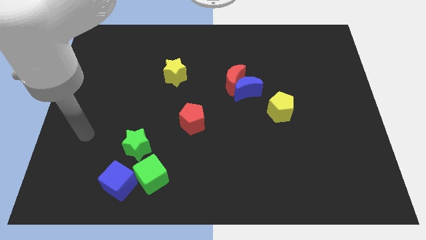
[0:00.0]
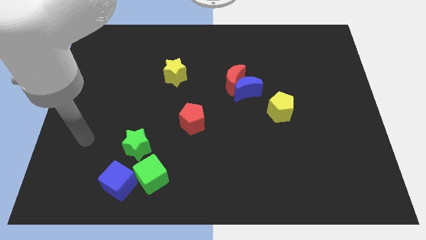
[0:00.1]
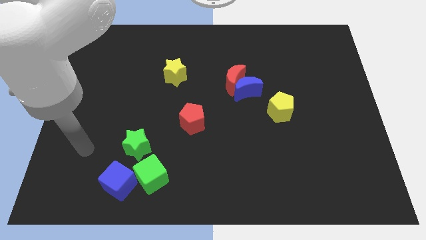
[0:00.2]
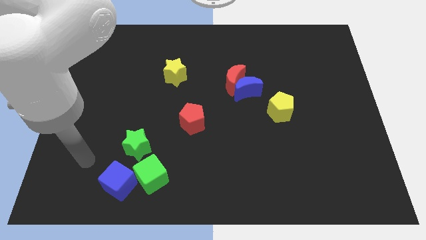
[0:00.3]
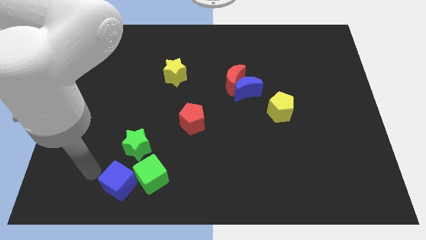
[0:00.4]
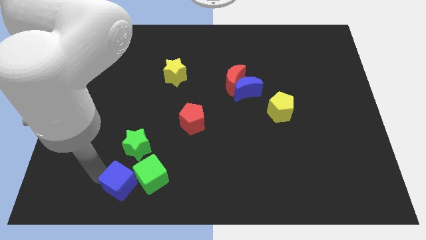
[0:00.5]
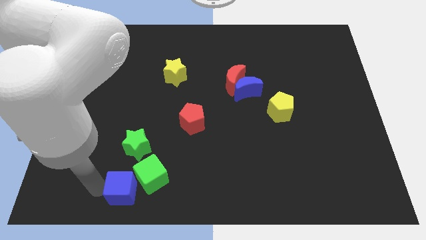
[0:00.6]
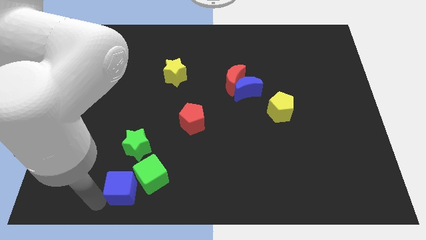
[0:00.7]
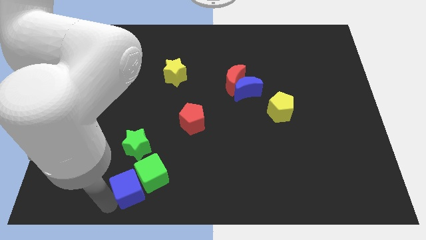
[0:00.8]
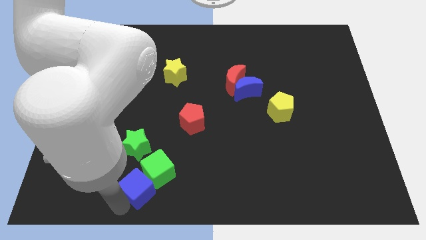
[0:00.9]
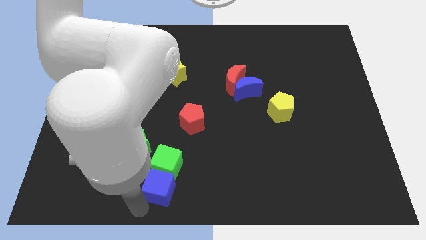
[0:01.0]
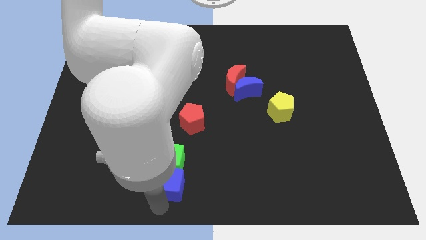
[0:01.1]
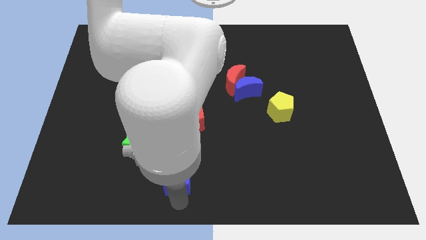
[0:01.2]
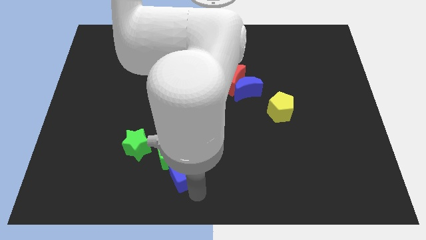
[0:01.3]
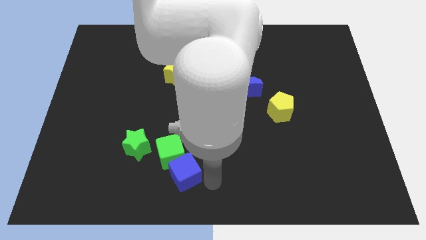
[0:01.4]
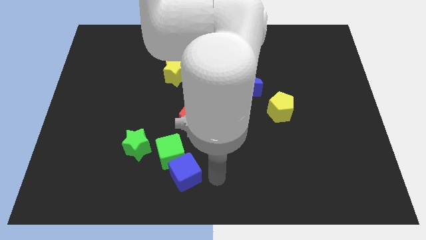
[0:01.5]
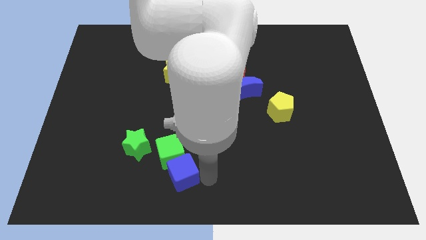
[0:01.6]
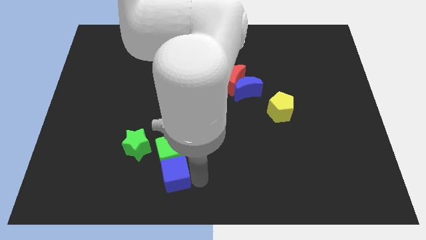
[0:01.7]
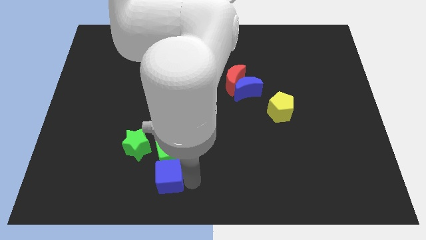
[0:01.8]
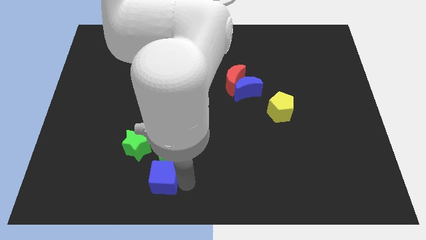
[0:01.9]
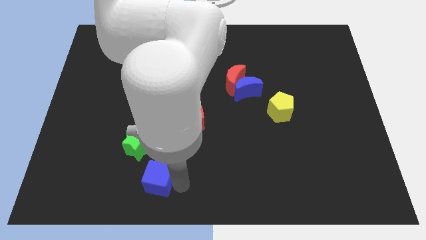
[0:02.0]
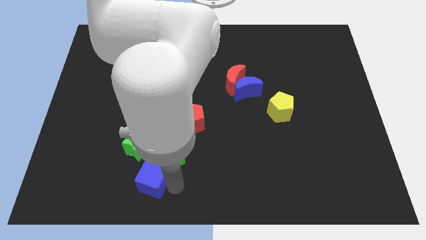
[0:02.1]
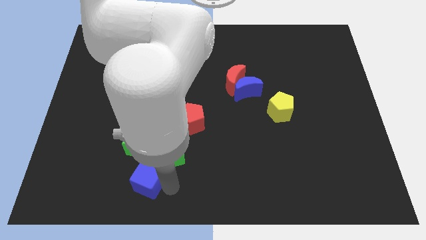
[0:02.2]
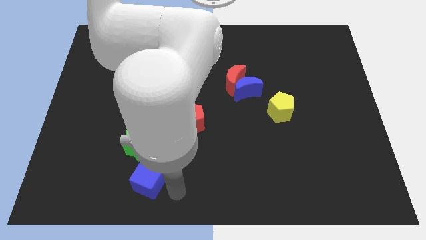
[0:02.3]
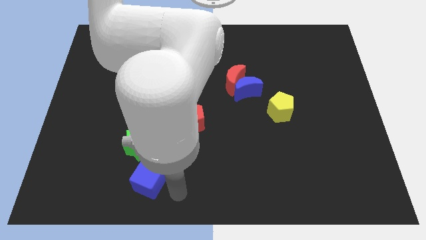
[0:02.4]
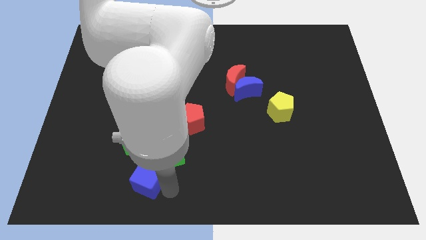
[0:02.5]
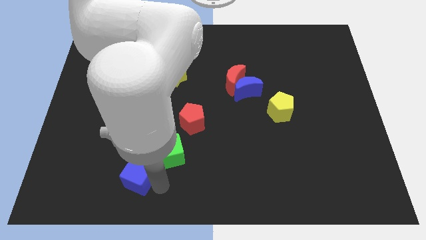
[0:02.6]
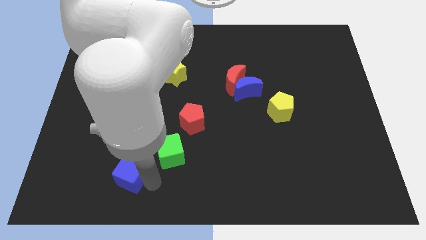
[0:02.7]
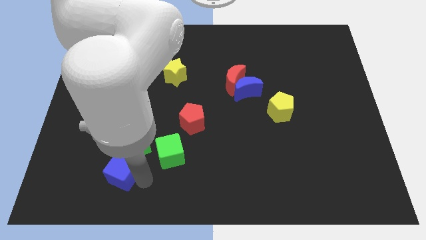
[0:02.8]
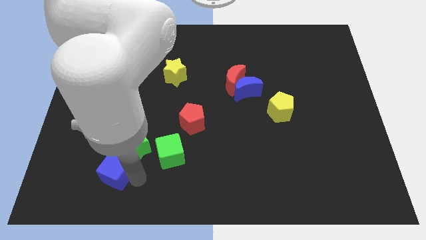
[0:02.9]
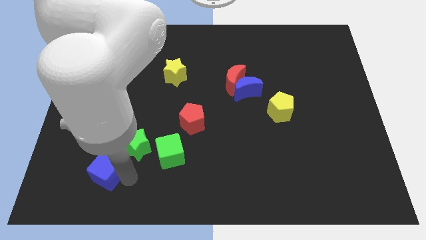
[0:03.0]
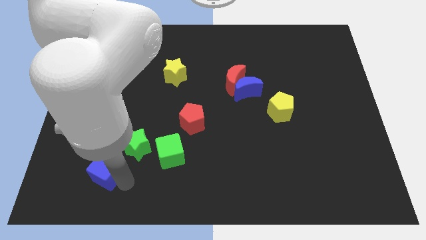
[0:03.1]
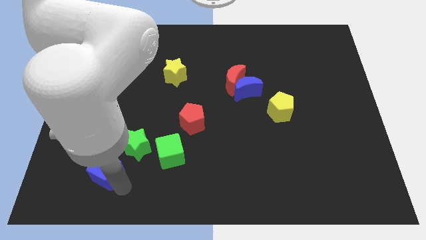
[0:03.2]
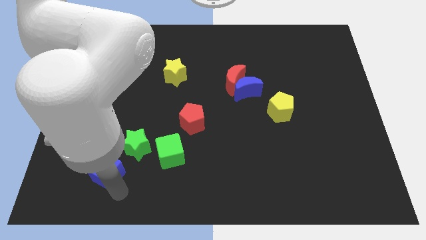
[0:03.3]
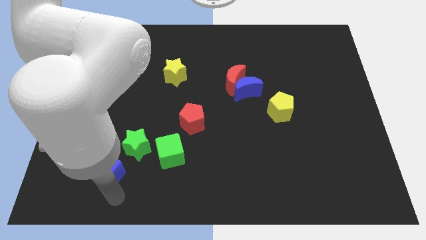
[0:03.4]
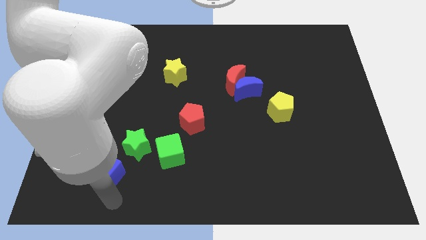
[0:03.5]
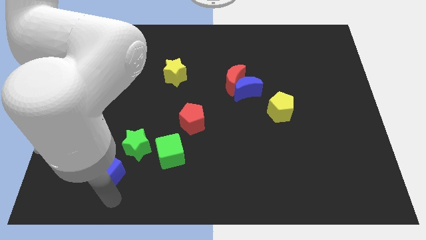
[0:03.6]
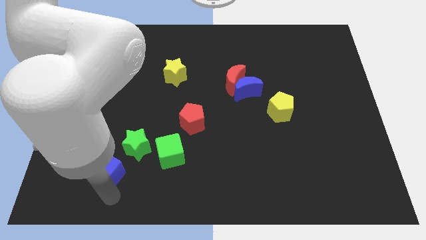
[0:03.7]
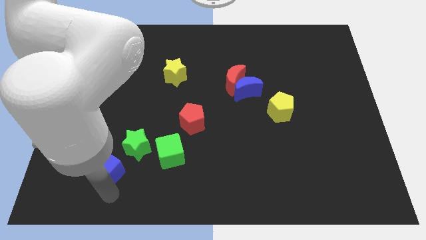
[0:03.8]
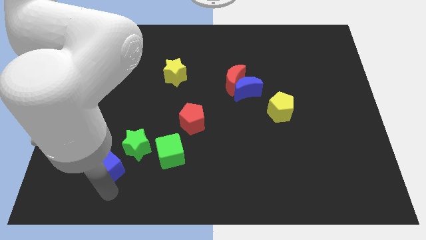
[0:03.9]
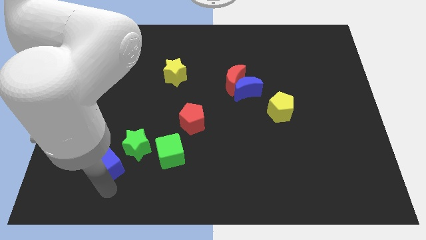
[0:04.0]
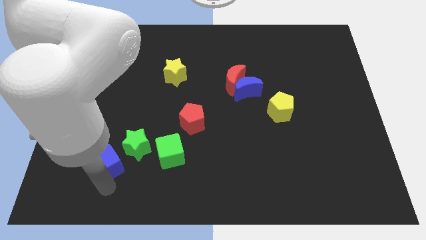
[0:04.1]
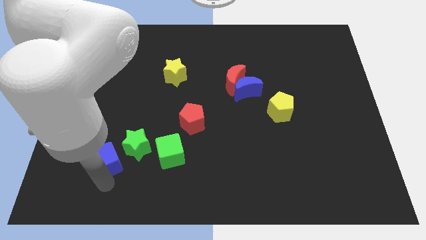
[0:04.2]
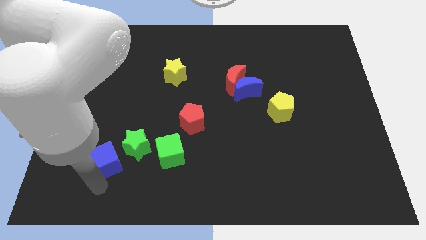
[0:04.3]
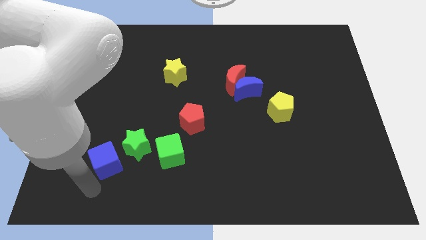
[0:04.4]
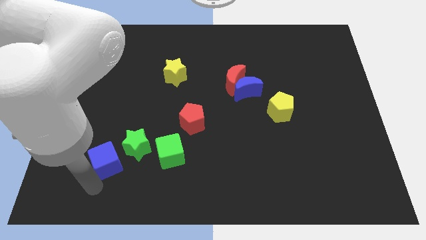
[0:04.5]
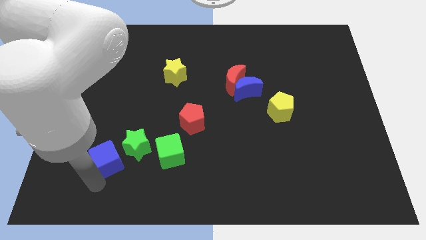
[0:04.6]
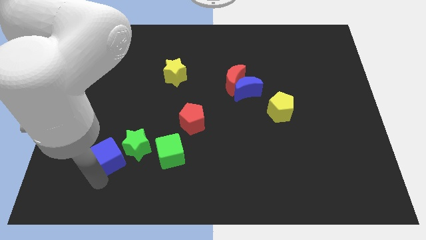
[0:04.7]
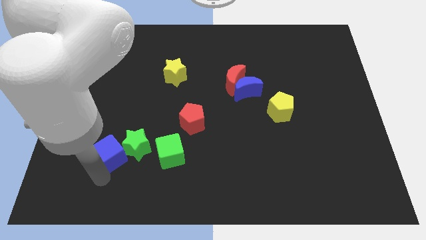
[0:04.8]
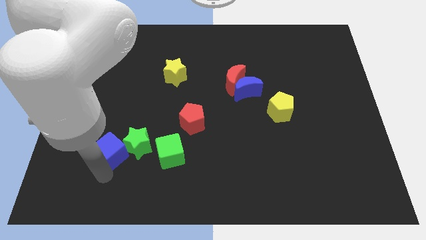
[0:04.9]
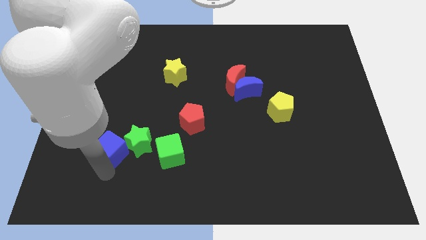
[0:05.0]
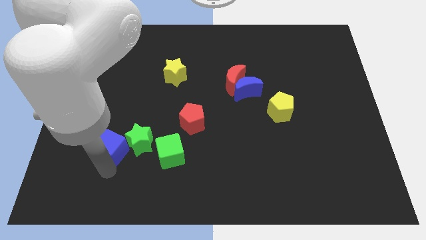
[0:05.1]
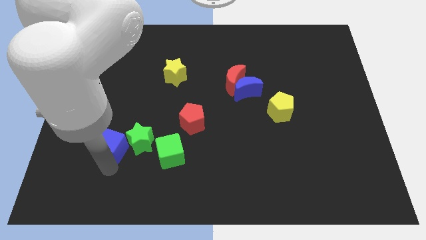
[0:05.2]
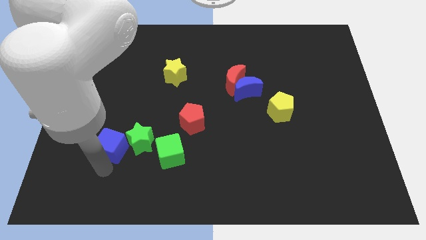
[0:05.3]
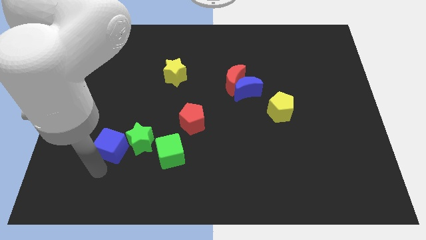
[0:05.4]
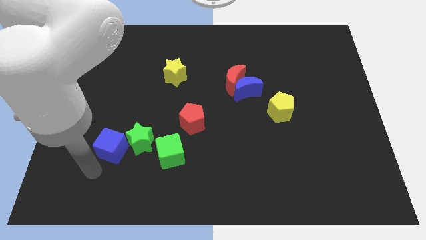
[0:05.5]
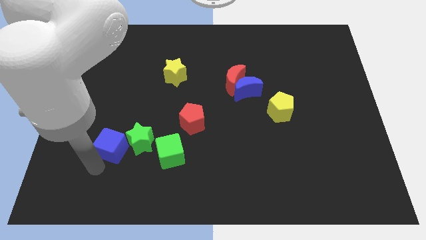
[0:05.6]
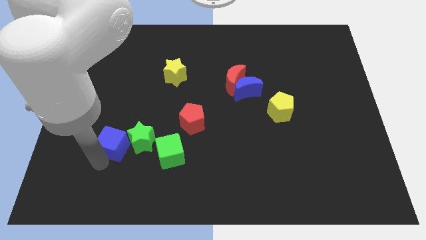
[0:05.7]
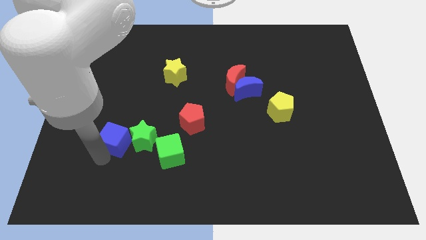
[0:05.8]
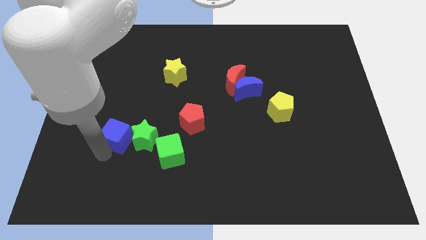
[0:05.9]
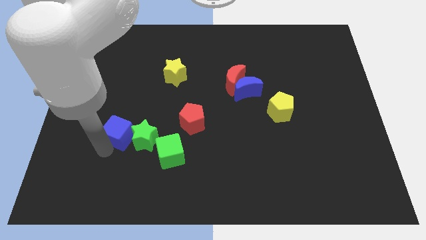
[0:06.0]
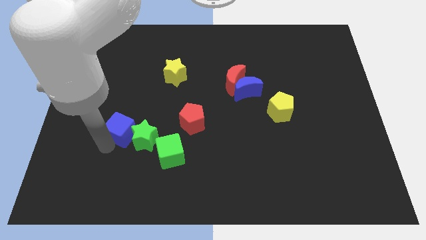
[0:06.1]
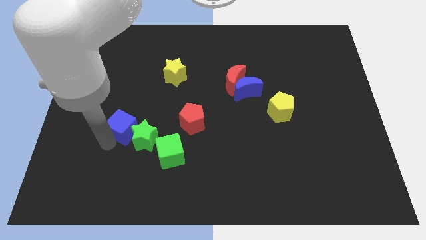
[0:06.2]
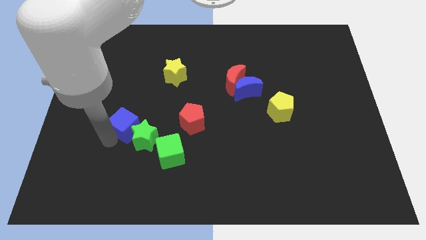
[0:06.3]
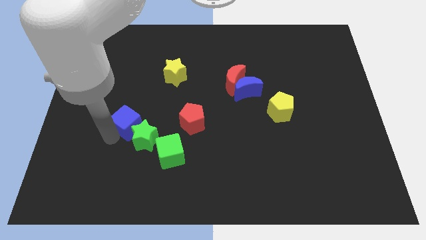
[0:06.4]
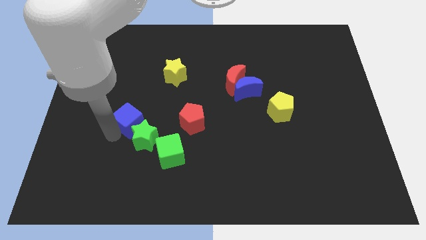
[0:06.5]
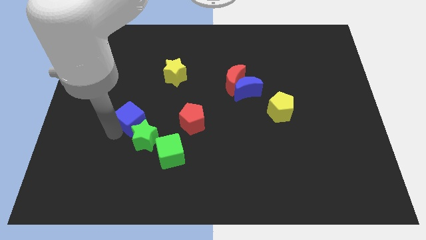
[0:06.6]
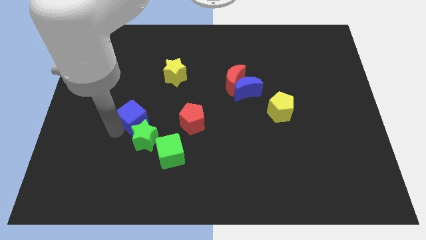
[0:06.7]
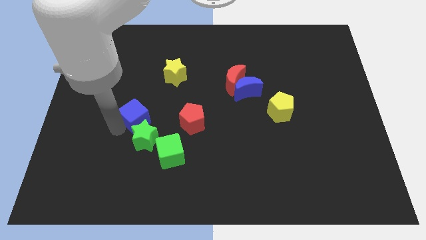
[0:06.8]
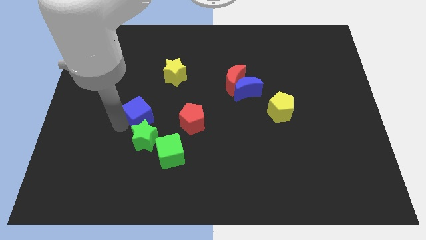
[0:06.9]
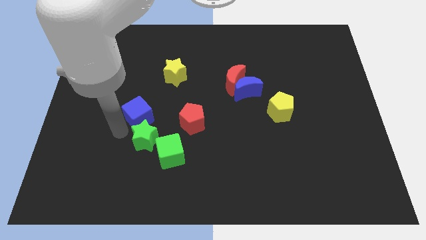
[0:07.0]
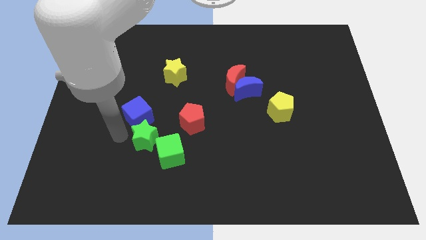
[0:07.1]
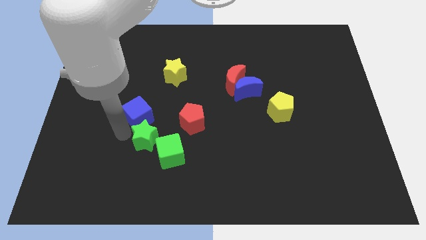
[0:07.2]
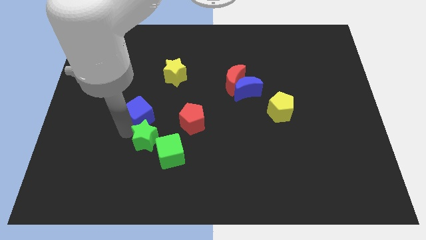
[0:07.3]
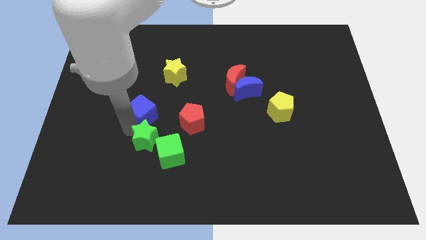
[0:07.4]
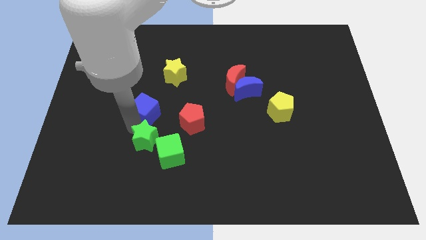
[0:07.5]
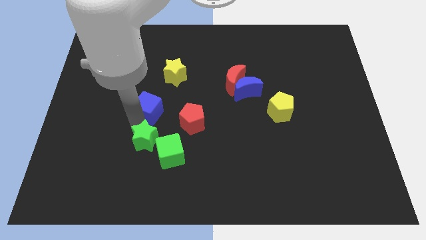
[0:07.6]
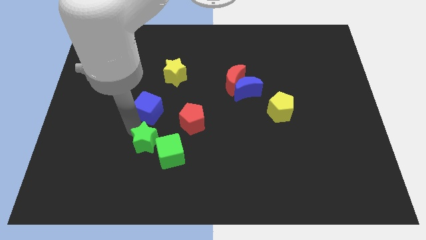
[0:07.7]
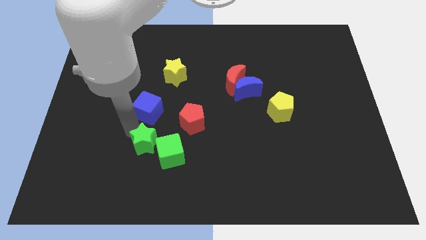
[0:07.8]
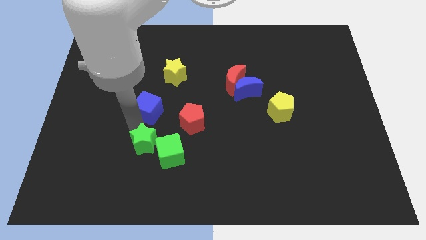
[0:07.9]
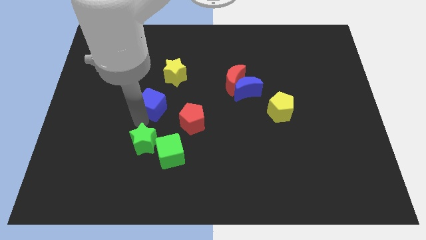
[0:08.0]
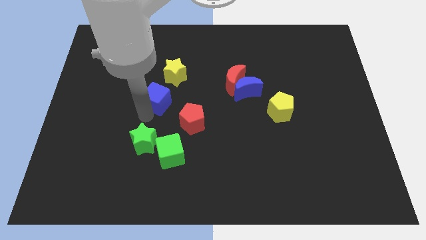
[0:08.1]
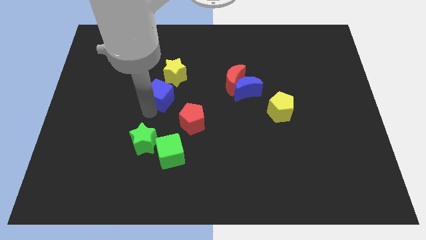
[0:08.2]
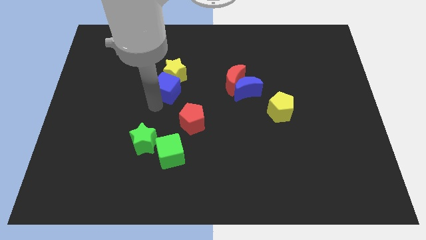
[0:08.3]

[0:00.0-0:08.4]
put the blue cube towards the yellow star
